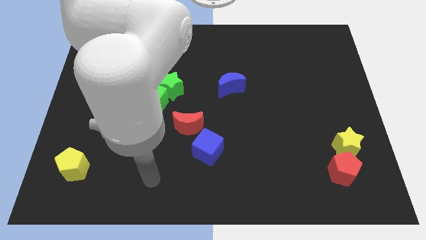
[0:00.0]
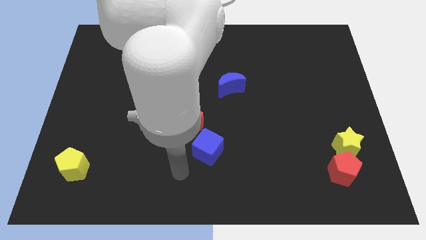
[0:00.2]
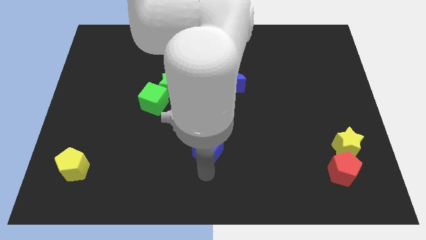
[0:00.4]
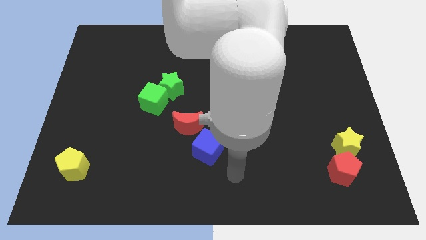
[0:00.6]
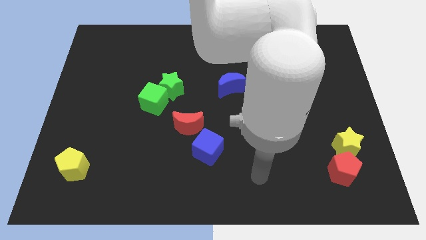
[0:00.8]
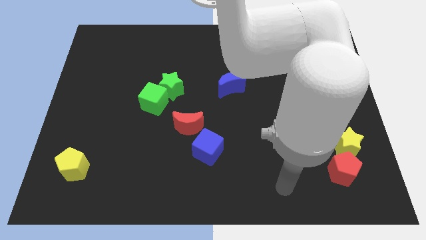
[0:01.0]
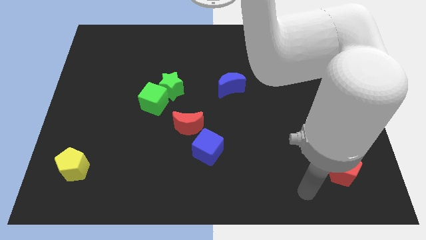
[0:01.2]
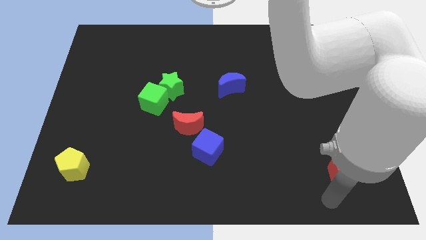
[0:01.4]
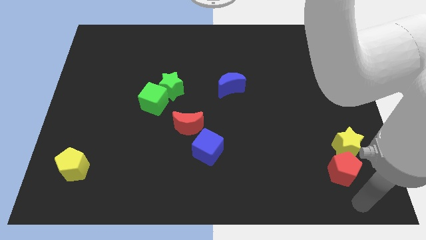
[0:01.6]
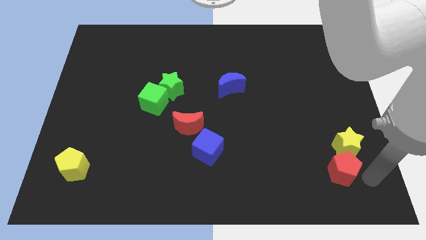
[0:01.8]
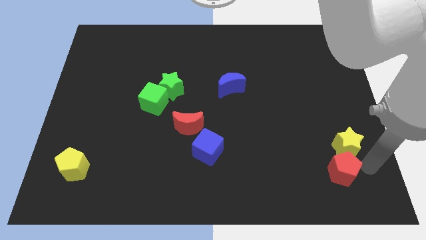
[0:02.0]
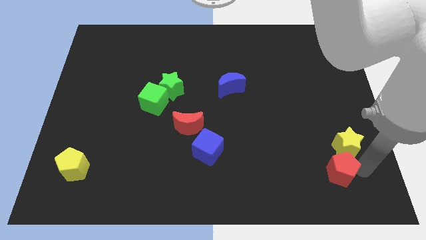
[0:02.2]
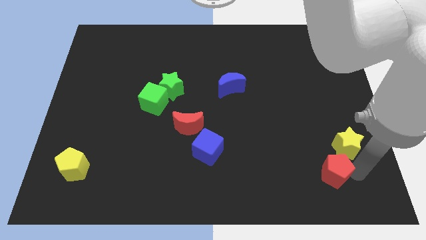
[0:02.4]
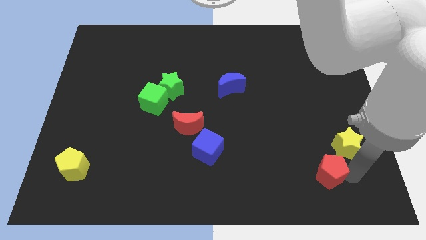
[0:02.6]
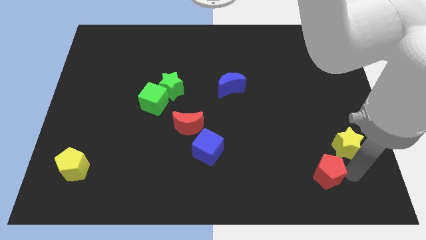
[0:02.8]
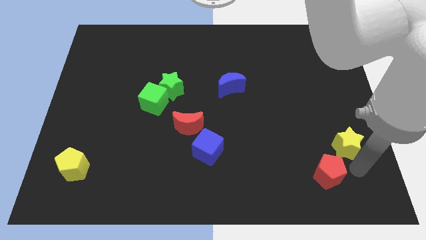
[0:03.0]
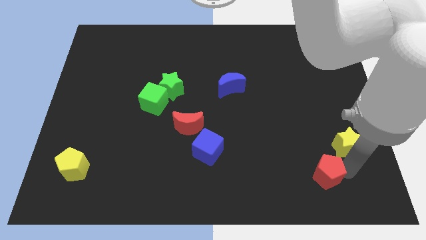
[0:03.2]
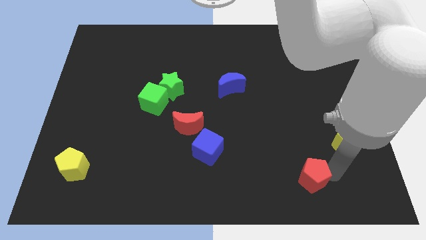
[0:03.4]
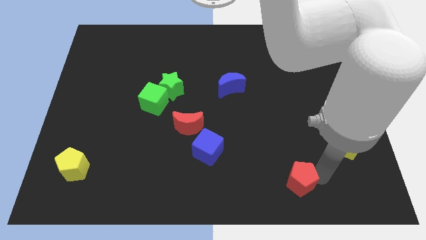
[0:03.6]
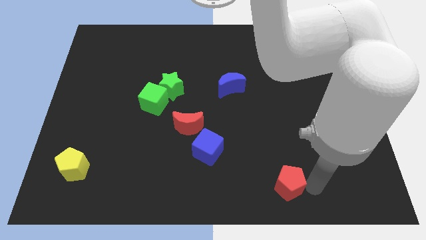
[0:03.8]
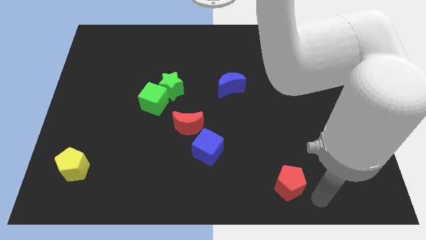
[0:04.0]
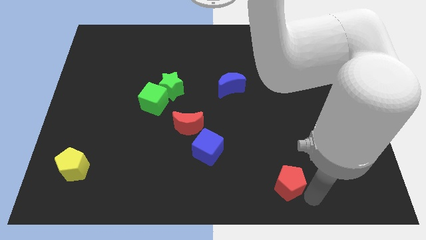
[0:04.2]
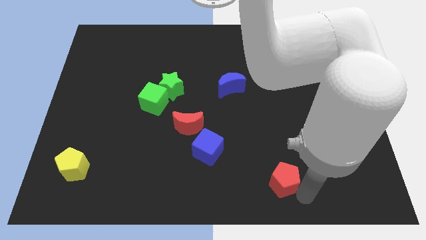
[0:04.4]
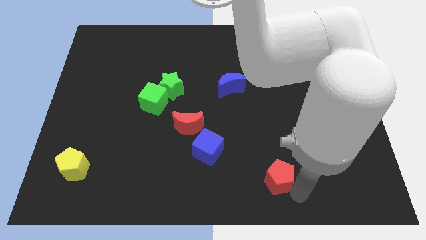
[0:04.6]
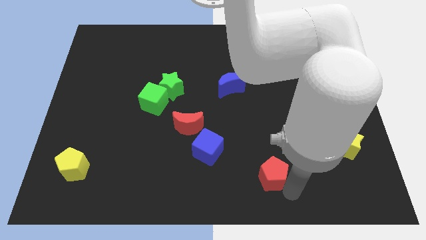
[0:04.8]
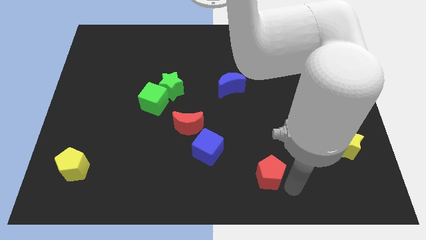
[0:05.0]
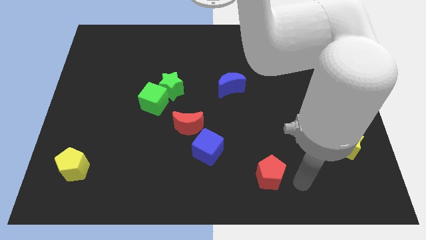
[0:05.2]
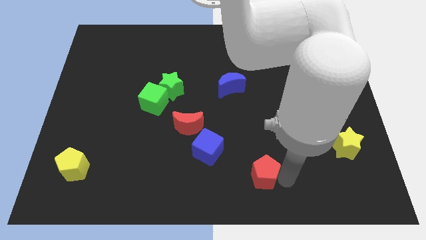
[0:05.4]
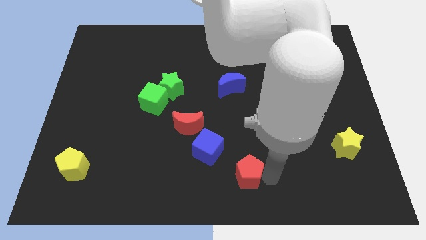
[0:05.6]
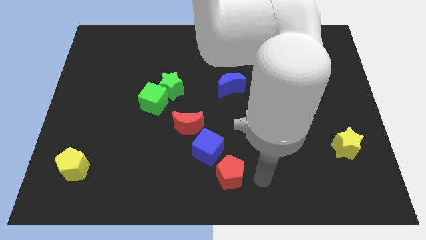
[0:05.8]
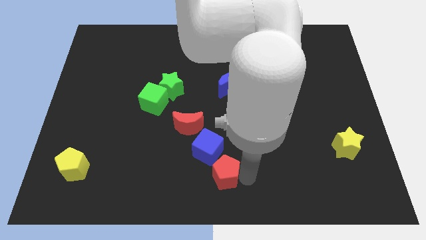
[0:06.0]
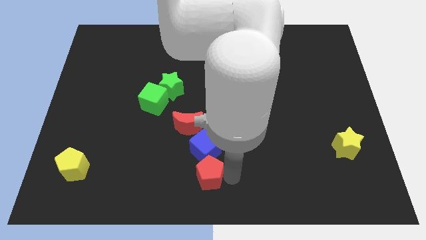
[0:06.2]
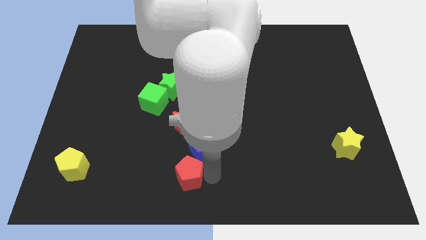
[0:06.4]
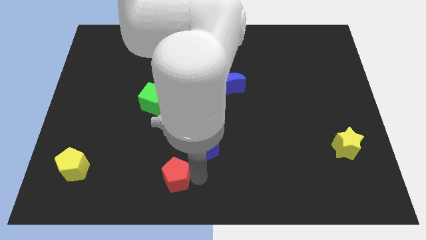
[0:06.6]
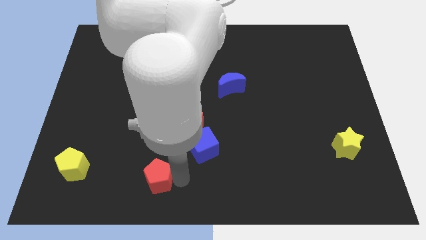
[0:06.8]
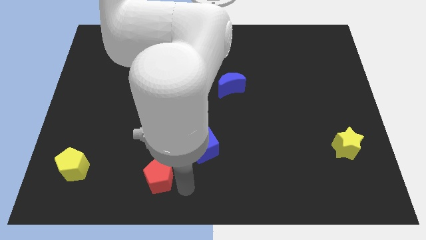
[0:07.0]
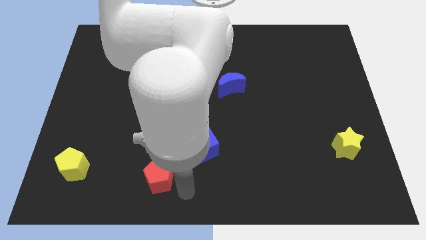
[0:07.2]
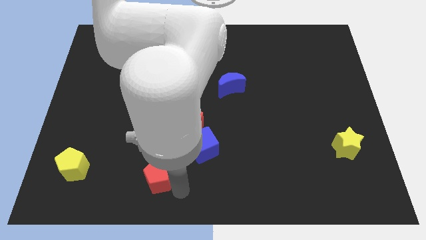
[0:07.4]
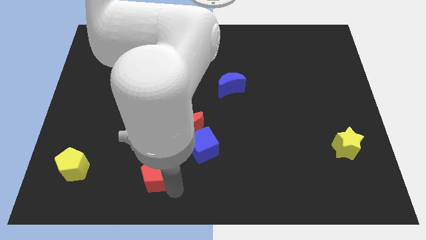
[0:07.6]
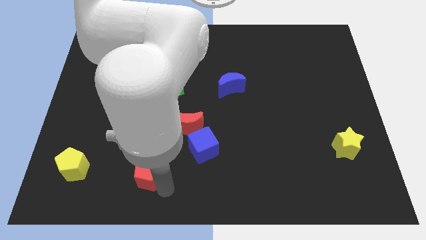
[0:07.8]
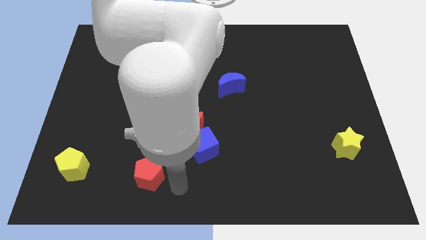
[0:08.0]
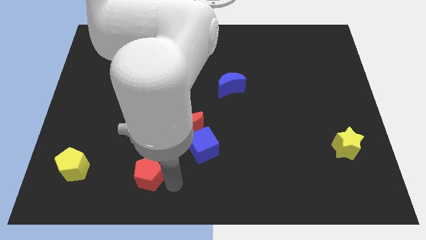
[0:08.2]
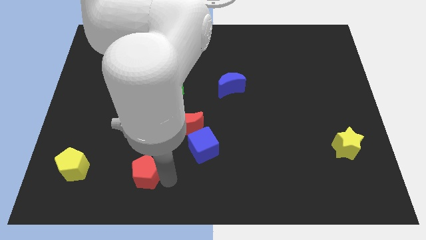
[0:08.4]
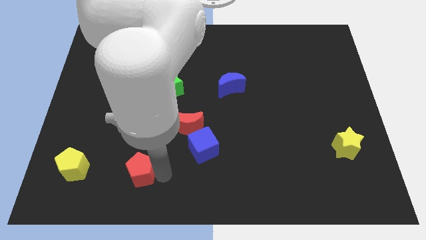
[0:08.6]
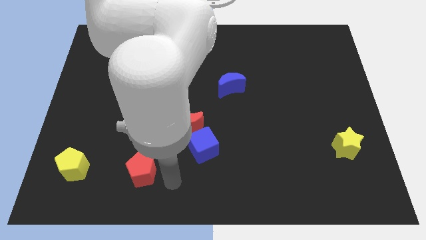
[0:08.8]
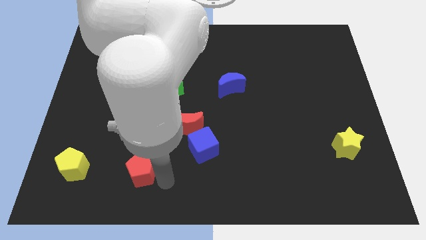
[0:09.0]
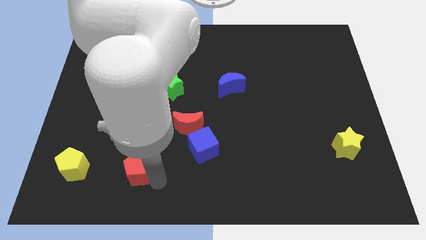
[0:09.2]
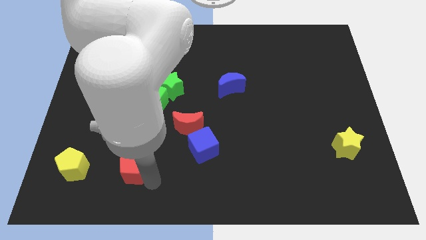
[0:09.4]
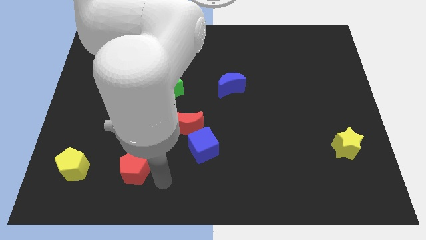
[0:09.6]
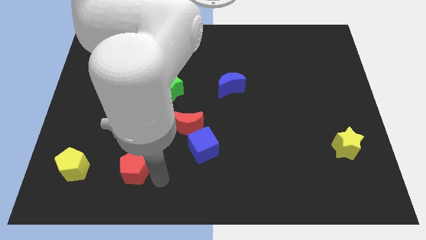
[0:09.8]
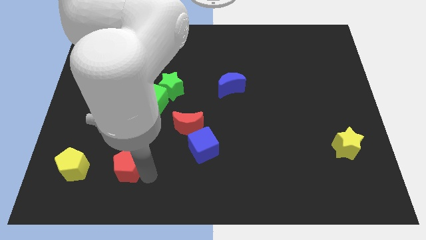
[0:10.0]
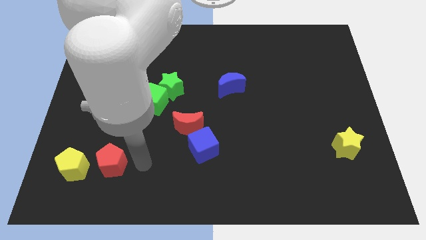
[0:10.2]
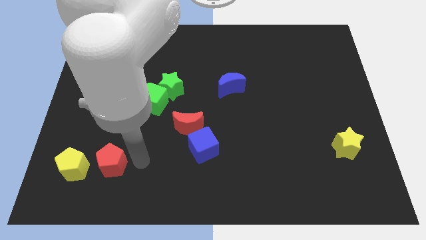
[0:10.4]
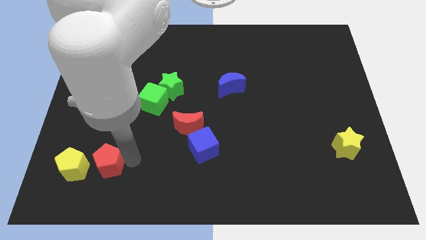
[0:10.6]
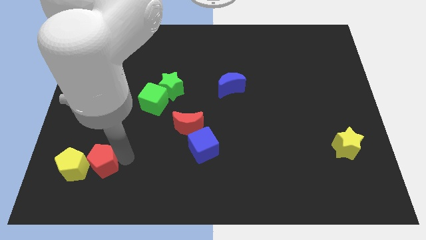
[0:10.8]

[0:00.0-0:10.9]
move the red pentagon next to the yellow pentagon

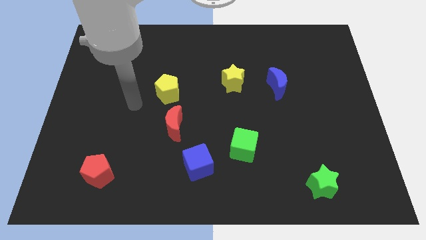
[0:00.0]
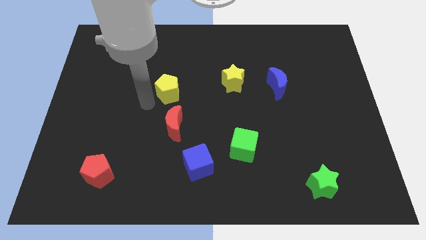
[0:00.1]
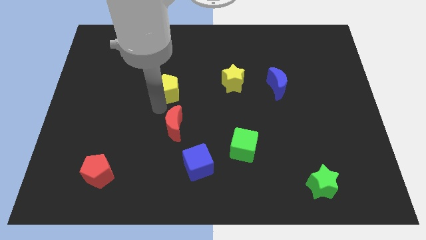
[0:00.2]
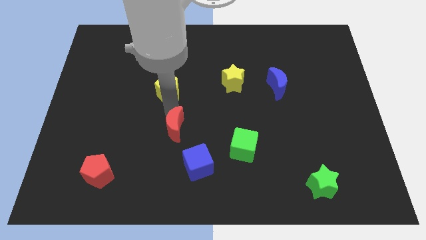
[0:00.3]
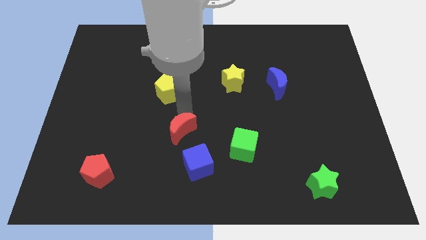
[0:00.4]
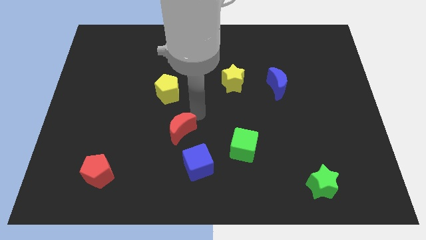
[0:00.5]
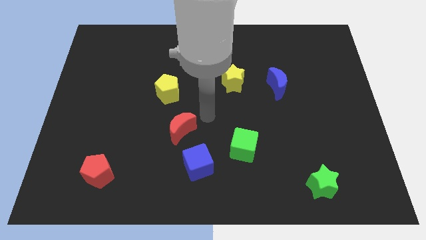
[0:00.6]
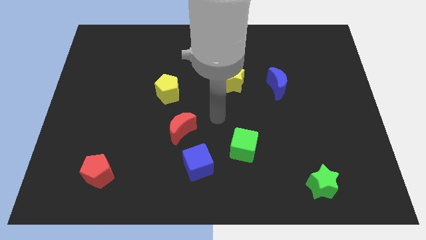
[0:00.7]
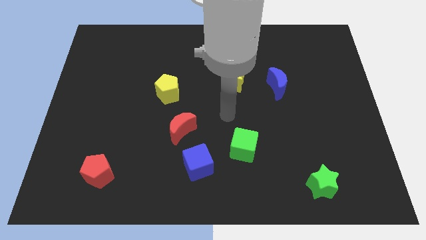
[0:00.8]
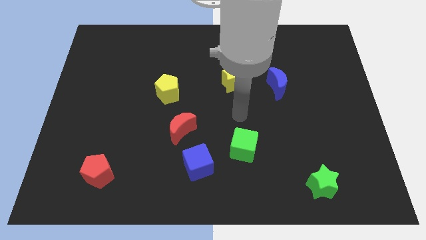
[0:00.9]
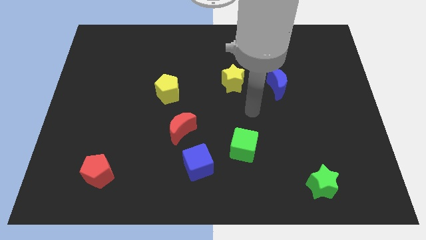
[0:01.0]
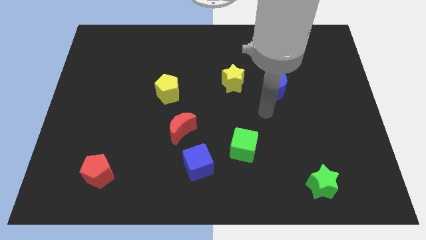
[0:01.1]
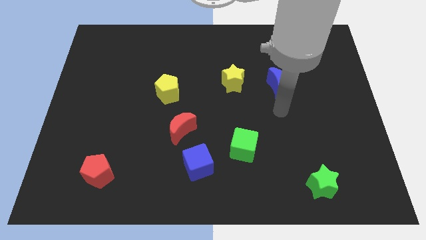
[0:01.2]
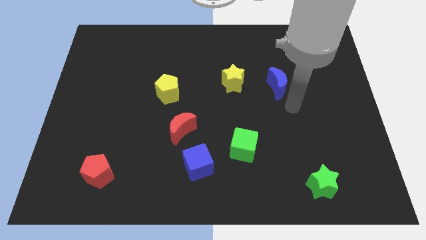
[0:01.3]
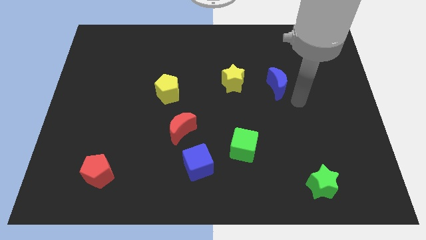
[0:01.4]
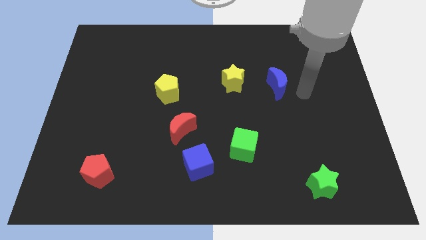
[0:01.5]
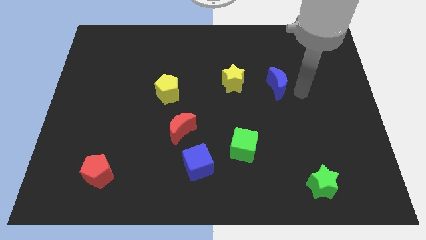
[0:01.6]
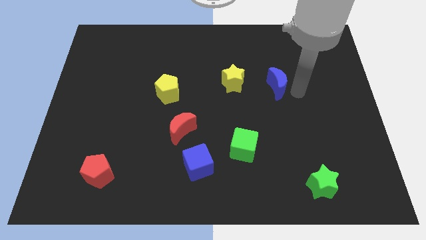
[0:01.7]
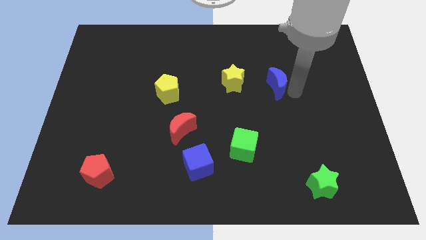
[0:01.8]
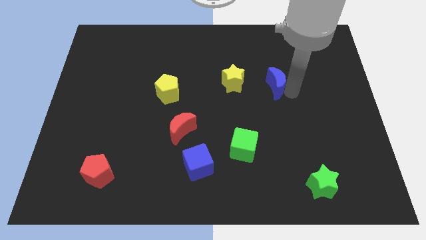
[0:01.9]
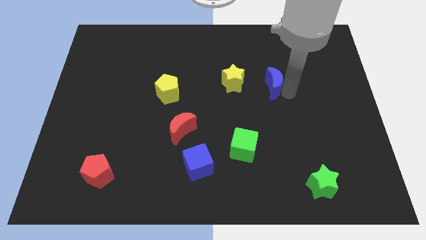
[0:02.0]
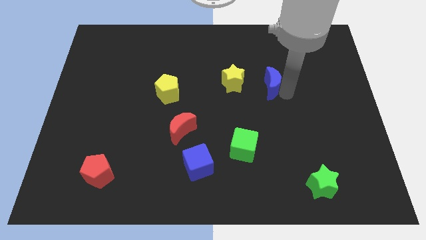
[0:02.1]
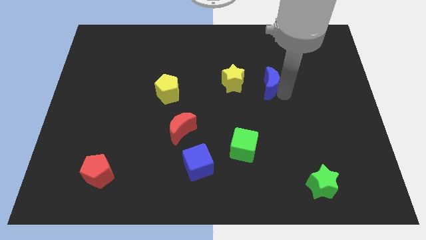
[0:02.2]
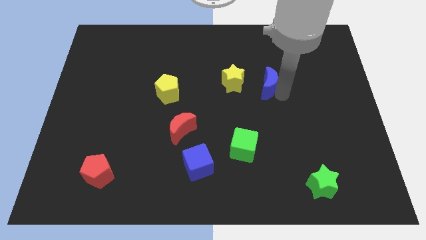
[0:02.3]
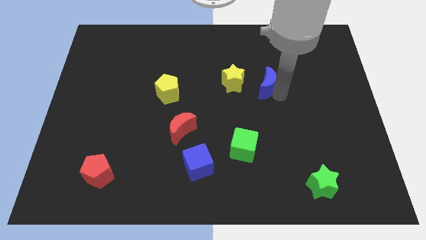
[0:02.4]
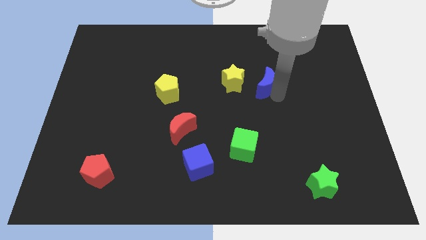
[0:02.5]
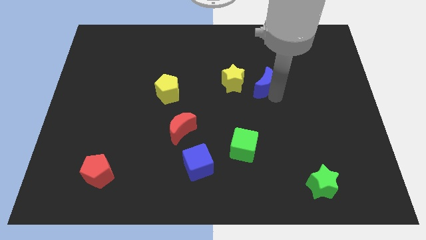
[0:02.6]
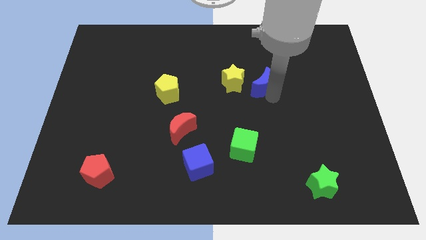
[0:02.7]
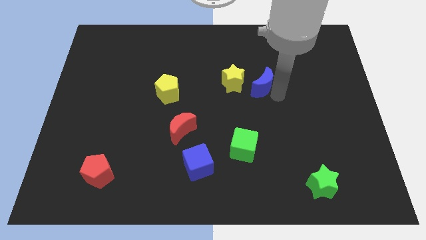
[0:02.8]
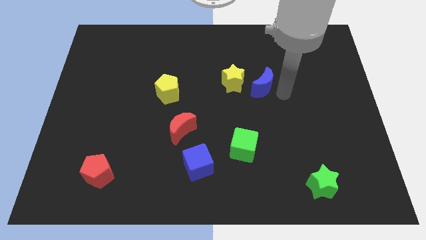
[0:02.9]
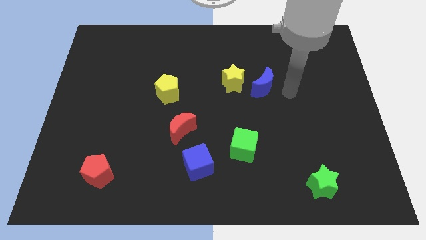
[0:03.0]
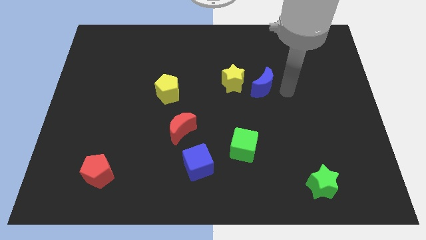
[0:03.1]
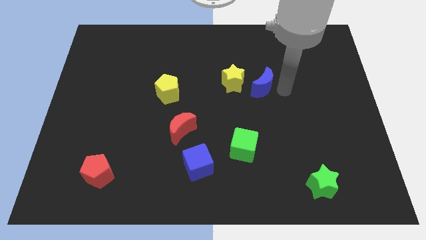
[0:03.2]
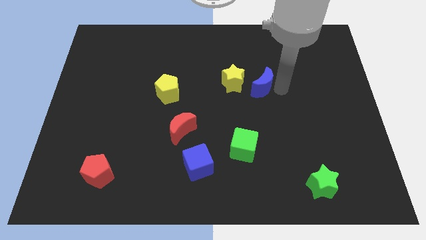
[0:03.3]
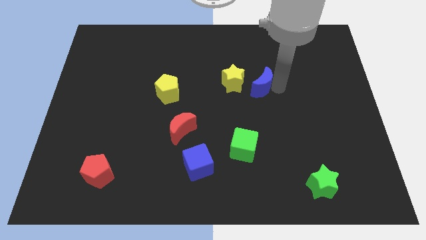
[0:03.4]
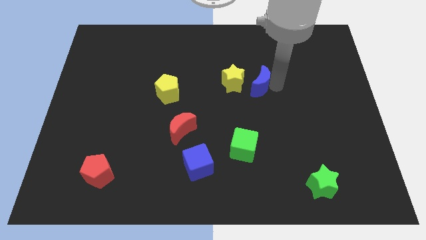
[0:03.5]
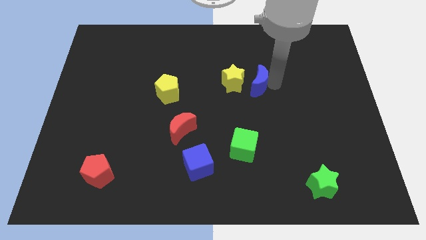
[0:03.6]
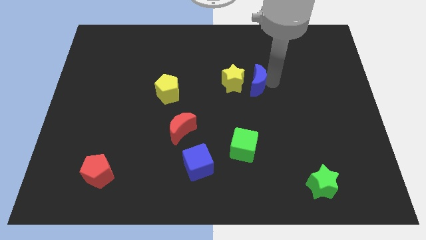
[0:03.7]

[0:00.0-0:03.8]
slide the blue moon next to the yellow star
